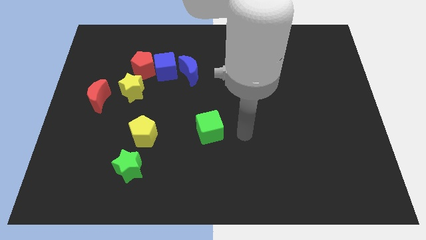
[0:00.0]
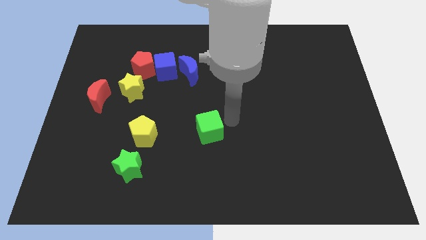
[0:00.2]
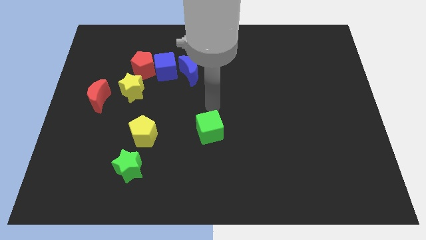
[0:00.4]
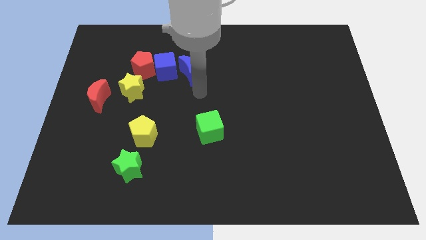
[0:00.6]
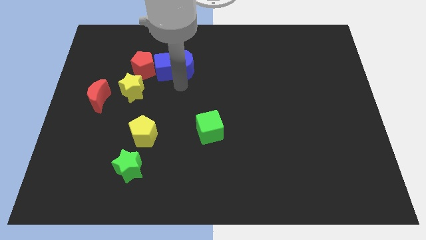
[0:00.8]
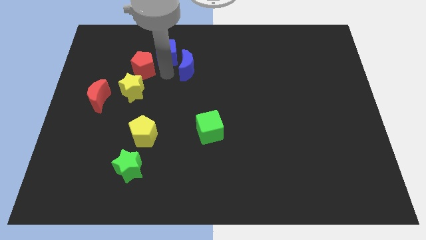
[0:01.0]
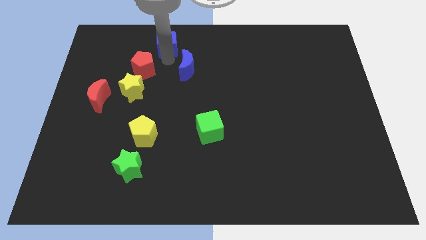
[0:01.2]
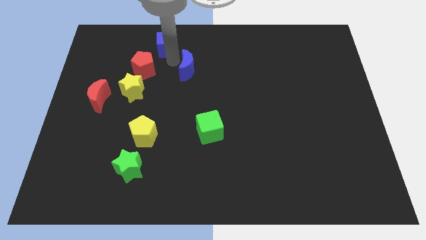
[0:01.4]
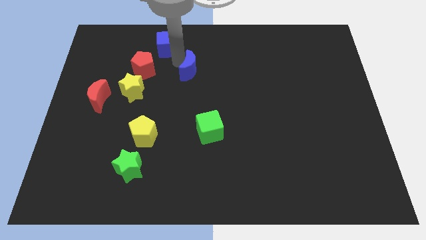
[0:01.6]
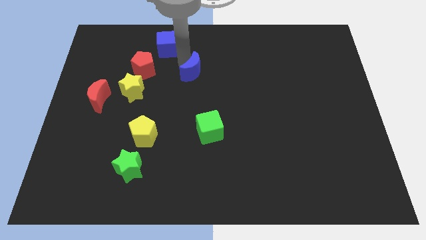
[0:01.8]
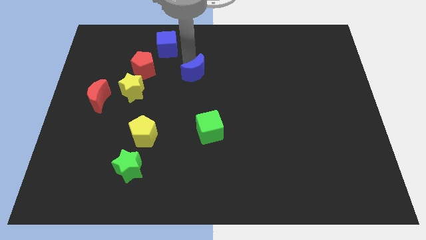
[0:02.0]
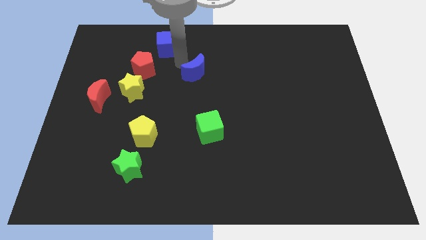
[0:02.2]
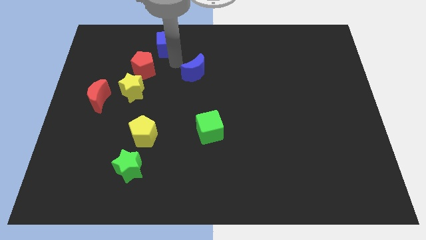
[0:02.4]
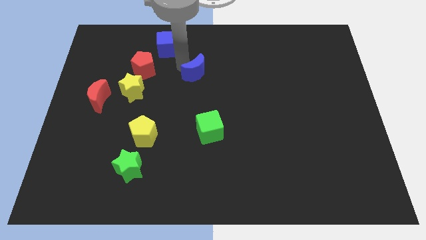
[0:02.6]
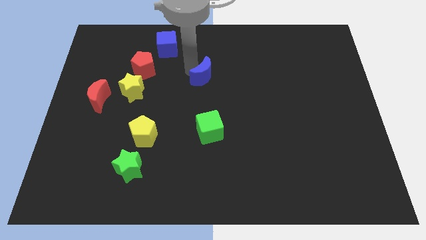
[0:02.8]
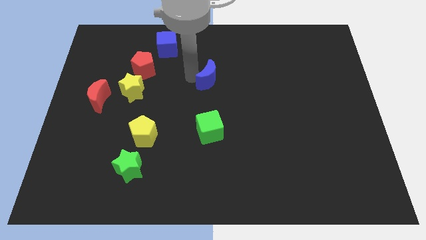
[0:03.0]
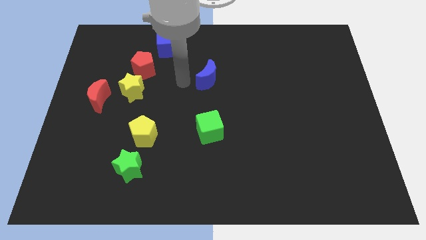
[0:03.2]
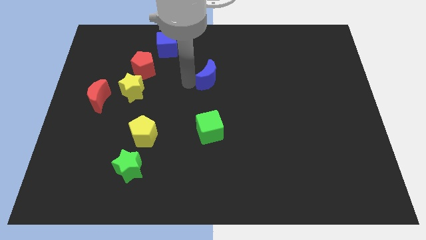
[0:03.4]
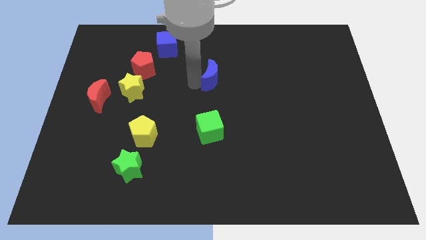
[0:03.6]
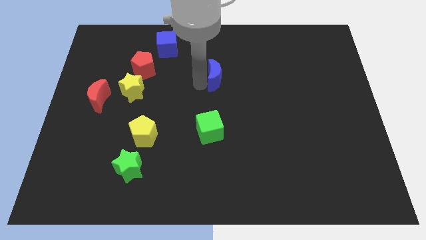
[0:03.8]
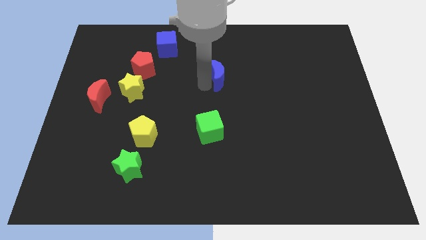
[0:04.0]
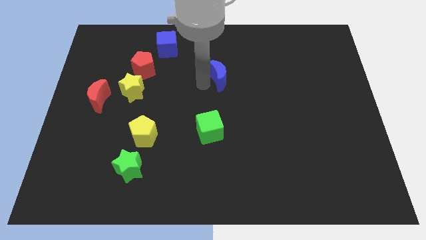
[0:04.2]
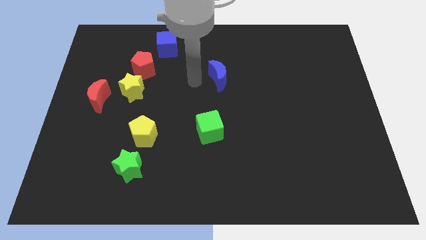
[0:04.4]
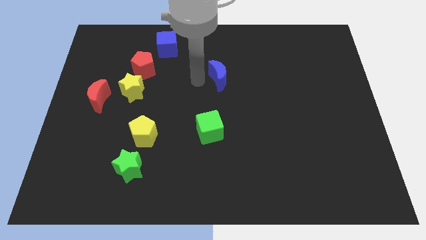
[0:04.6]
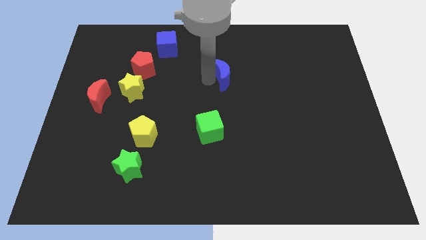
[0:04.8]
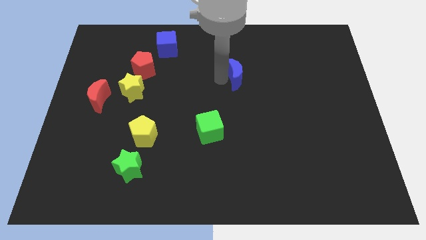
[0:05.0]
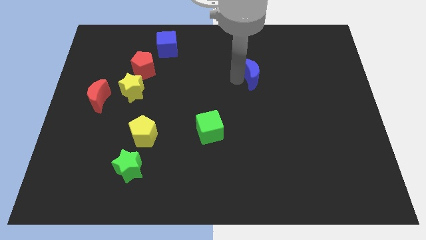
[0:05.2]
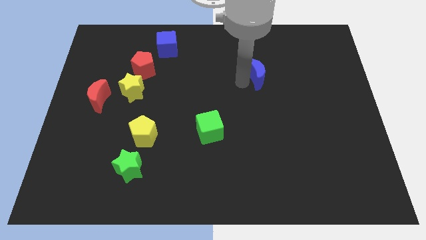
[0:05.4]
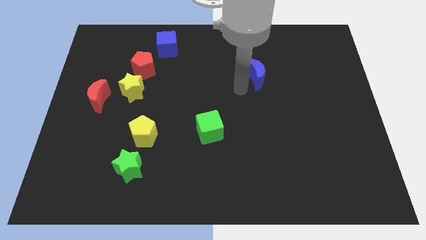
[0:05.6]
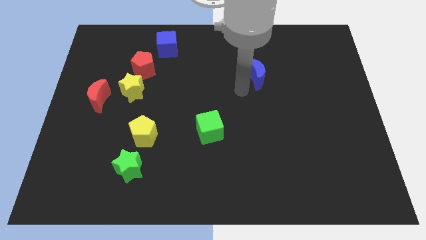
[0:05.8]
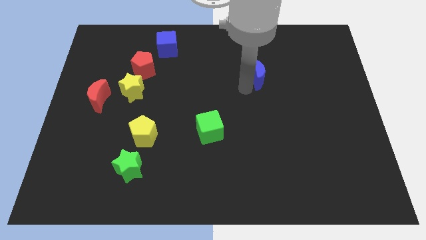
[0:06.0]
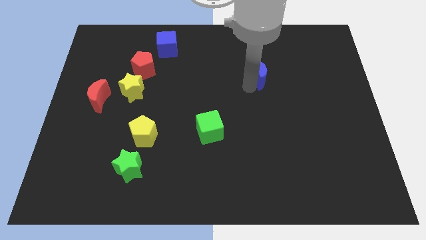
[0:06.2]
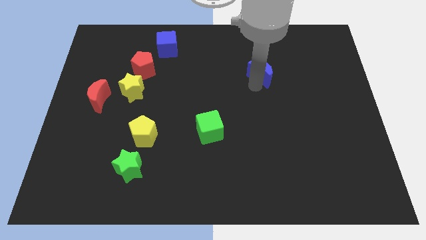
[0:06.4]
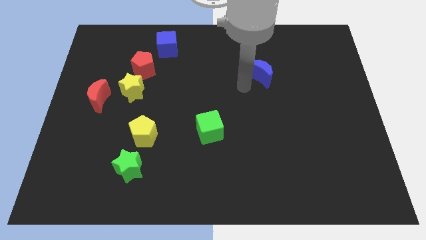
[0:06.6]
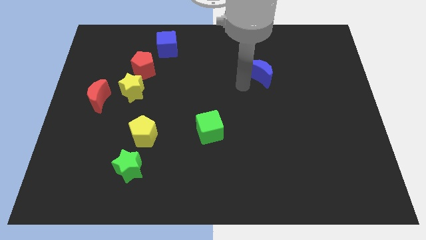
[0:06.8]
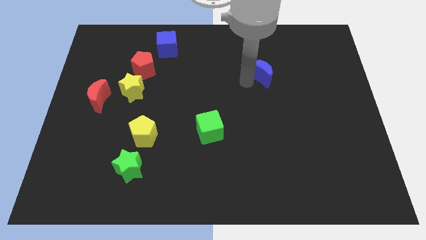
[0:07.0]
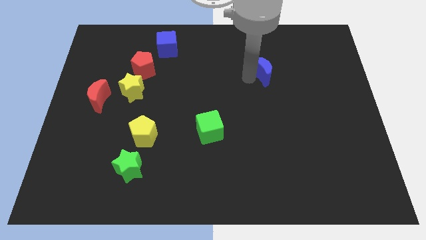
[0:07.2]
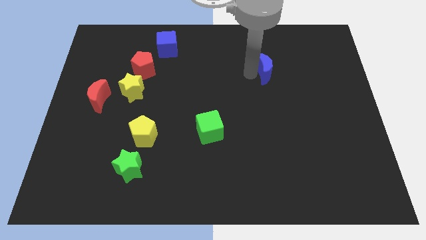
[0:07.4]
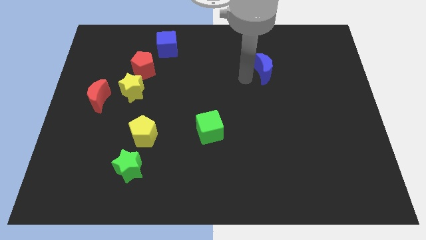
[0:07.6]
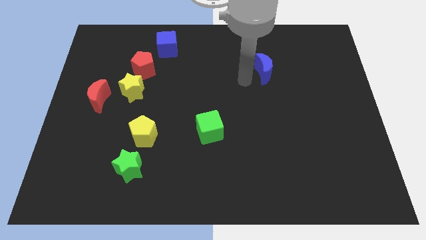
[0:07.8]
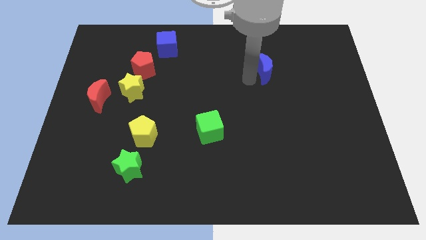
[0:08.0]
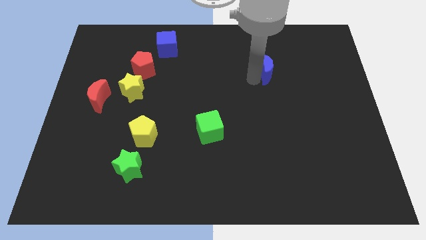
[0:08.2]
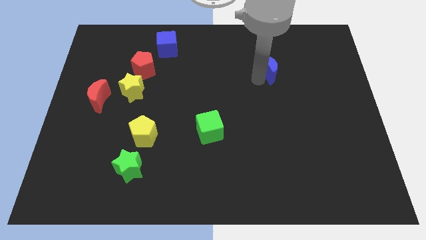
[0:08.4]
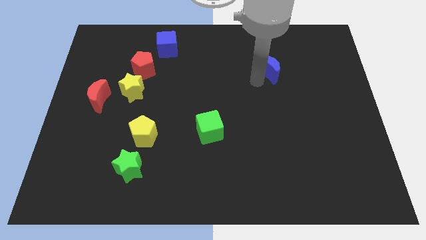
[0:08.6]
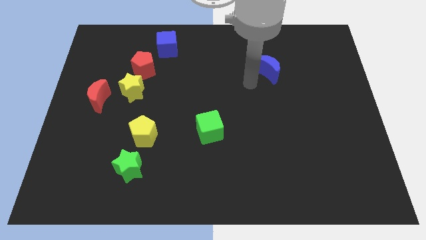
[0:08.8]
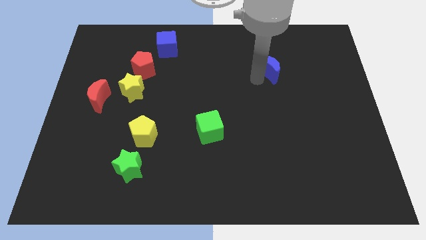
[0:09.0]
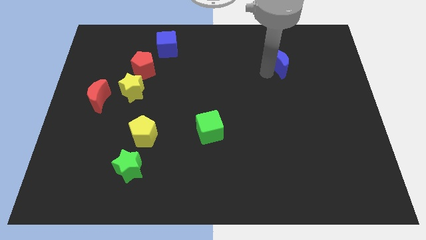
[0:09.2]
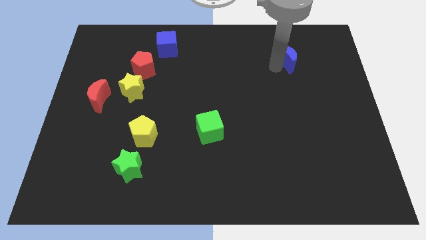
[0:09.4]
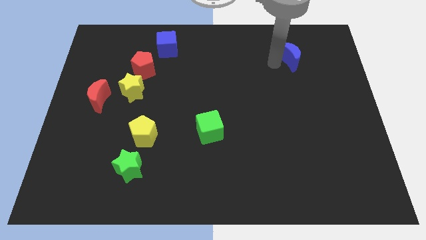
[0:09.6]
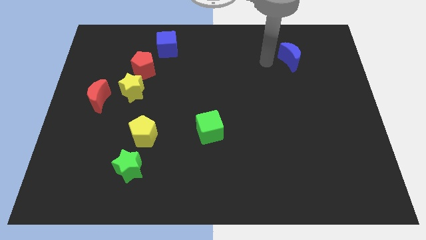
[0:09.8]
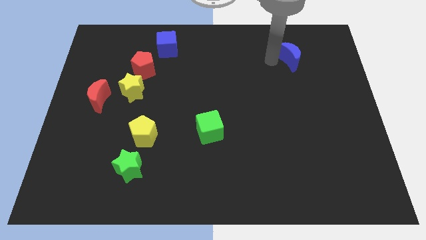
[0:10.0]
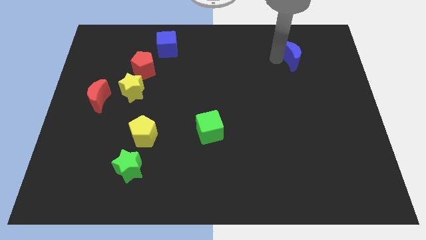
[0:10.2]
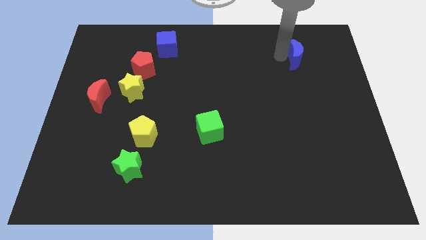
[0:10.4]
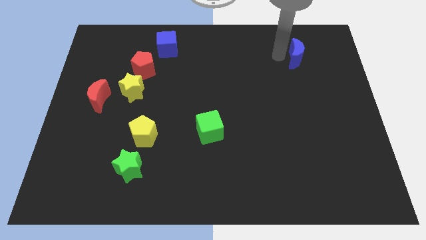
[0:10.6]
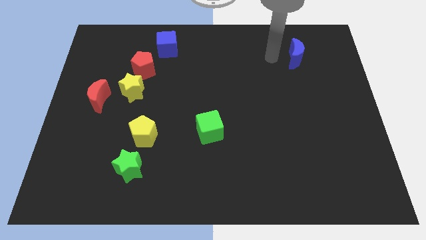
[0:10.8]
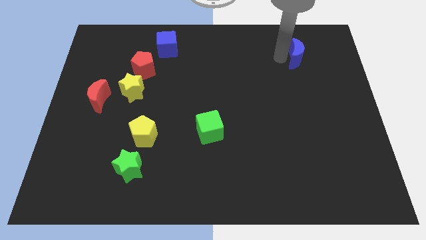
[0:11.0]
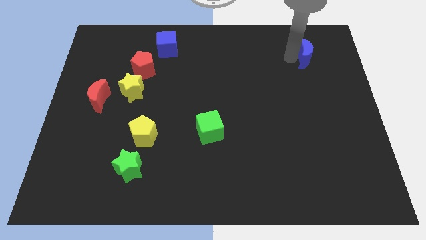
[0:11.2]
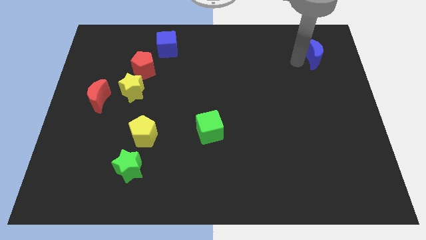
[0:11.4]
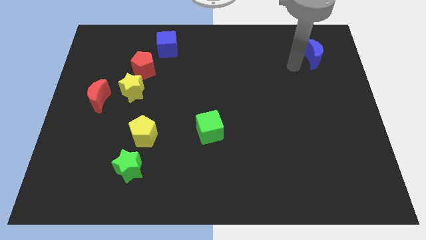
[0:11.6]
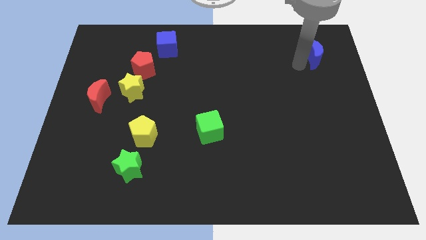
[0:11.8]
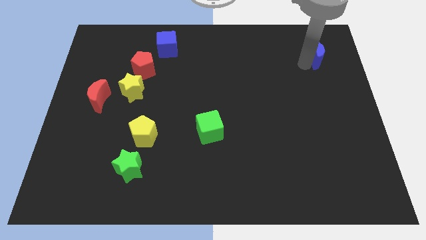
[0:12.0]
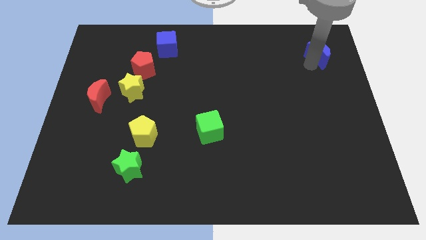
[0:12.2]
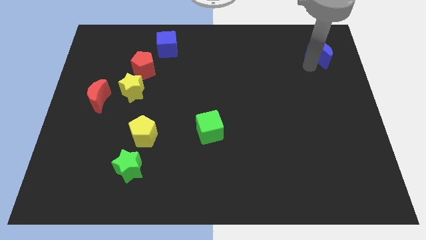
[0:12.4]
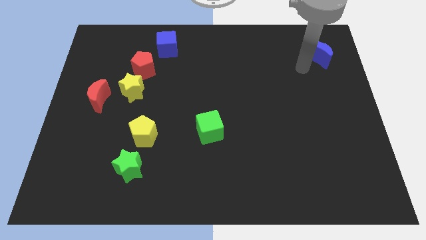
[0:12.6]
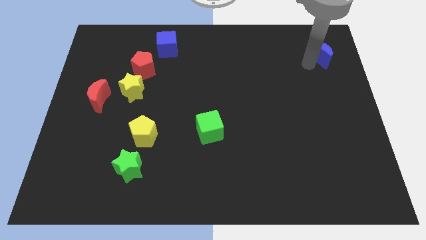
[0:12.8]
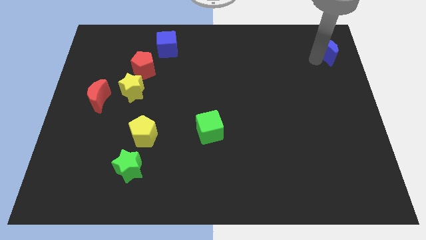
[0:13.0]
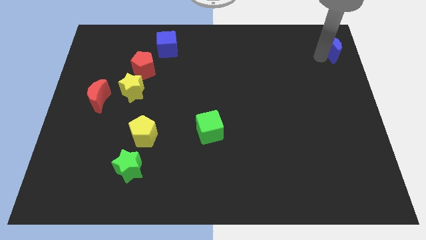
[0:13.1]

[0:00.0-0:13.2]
push the blue moon to the upper right corner
